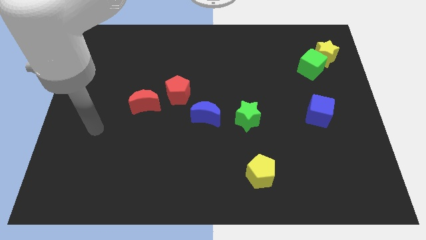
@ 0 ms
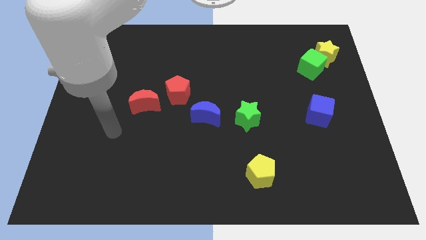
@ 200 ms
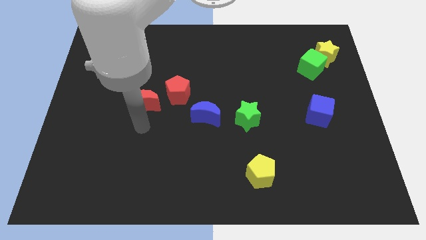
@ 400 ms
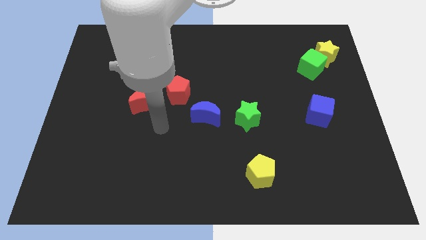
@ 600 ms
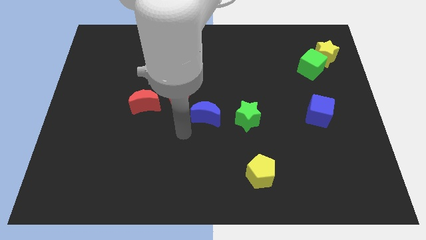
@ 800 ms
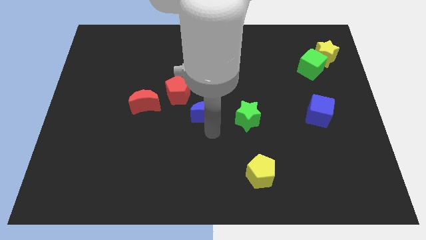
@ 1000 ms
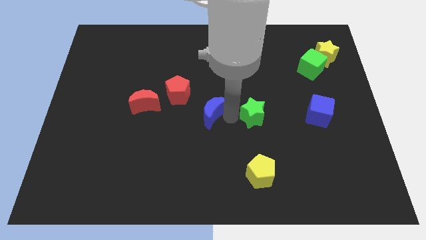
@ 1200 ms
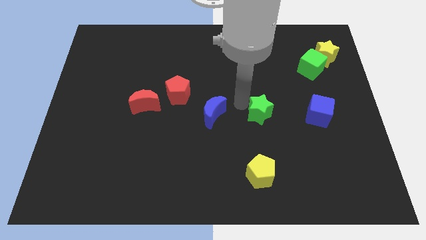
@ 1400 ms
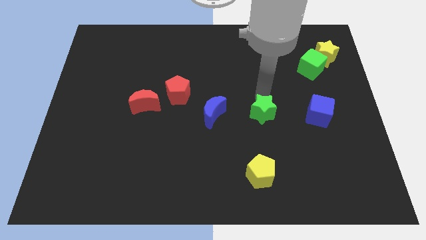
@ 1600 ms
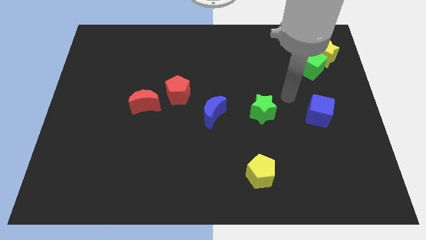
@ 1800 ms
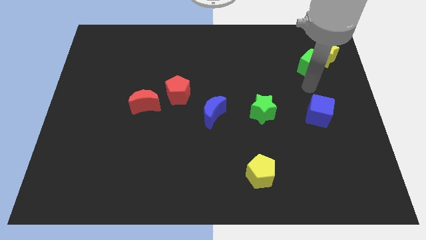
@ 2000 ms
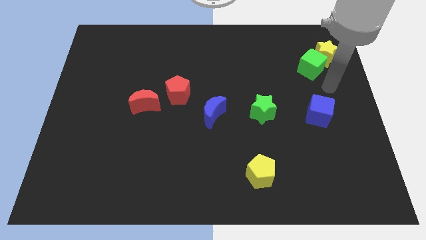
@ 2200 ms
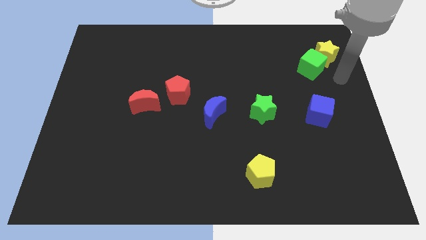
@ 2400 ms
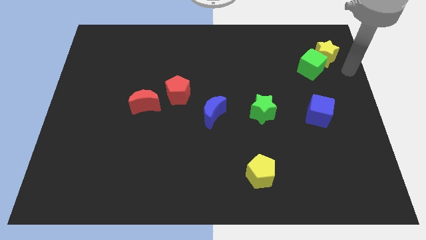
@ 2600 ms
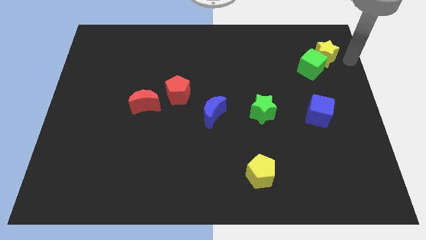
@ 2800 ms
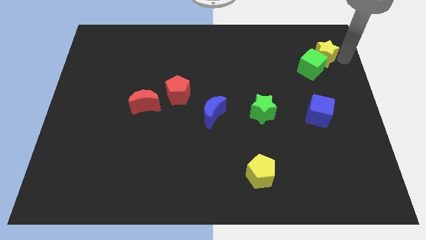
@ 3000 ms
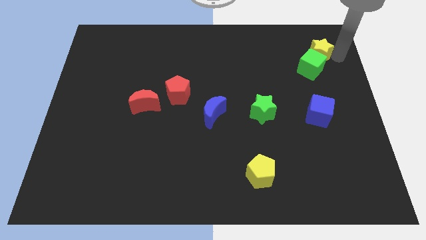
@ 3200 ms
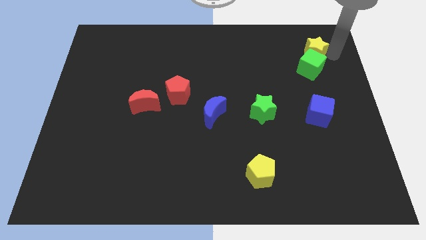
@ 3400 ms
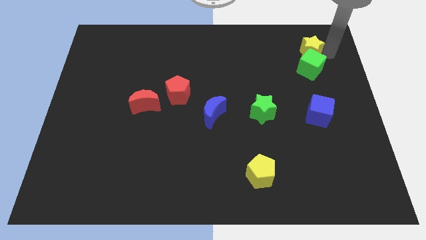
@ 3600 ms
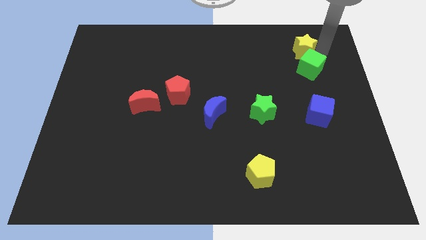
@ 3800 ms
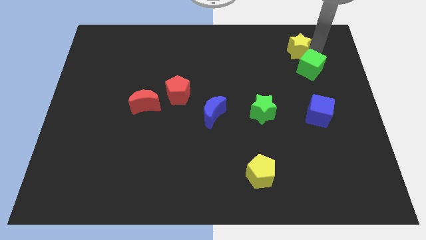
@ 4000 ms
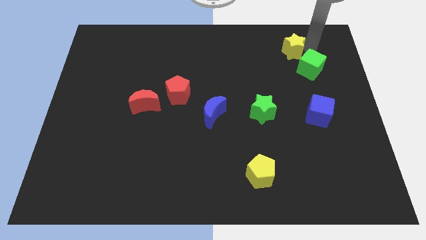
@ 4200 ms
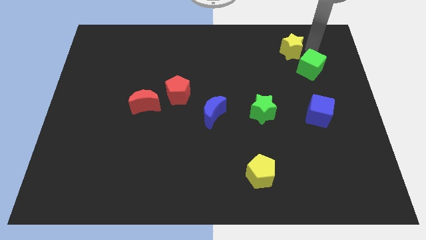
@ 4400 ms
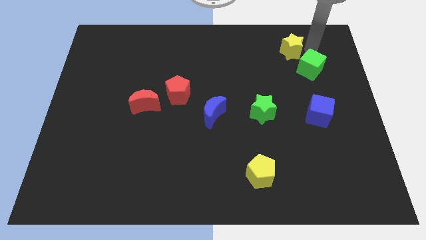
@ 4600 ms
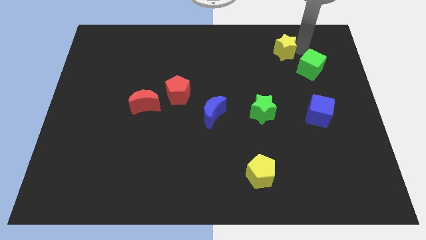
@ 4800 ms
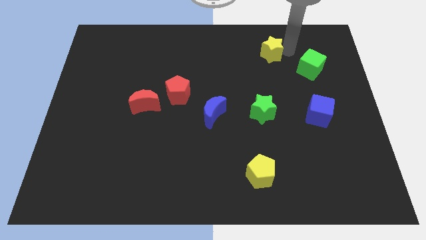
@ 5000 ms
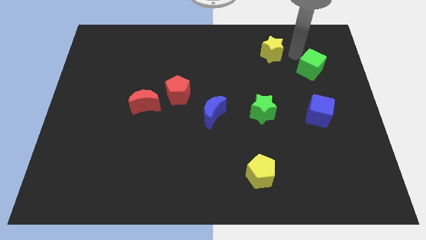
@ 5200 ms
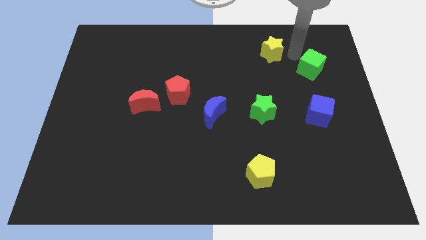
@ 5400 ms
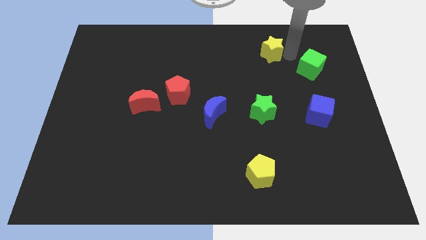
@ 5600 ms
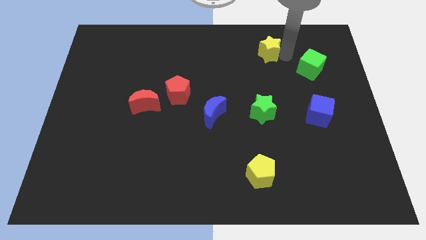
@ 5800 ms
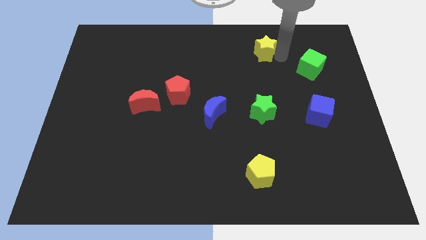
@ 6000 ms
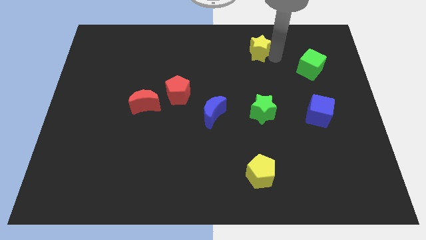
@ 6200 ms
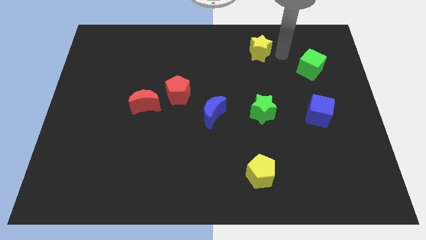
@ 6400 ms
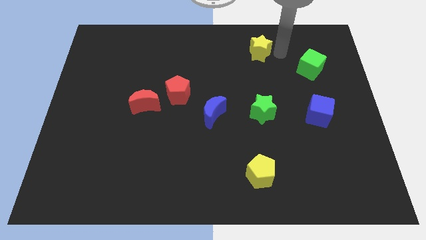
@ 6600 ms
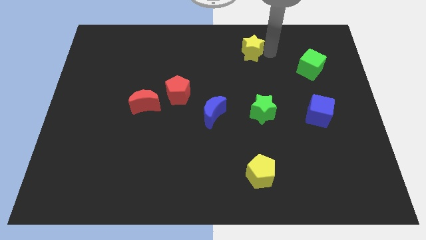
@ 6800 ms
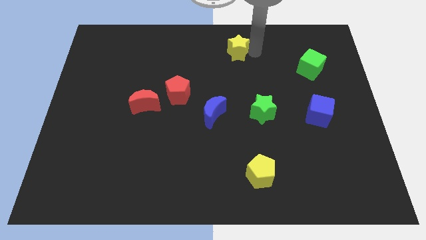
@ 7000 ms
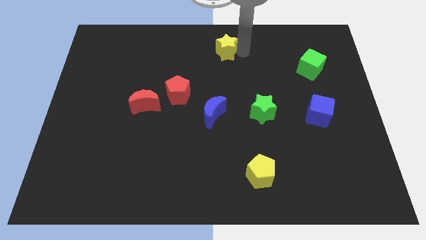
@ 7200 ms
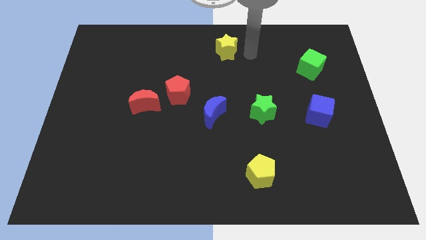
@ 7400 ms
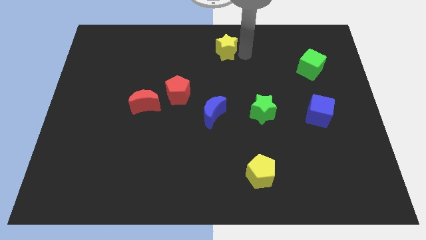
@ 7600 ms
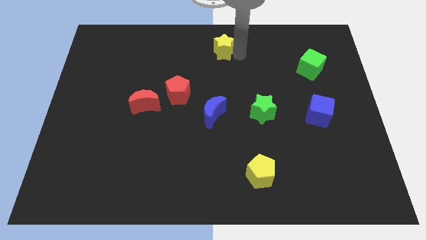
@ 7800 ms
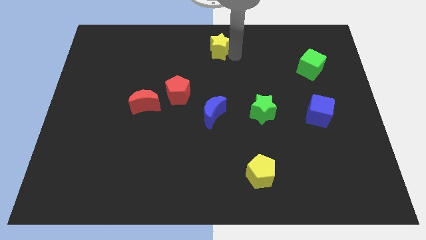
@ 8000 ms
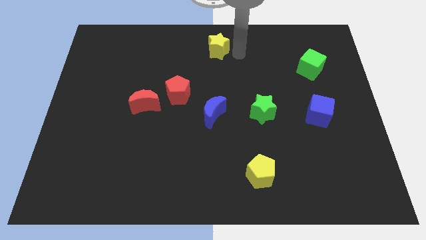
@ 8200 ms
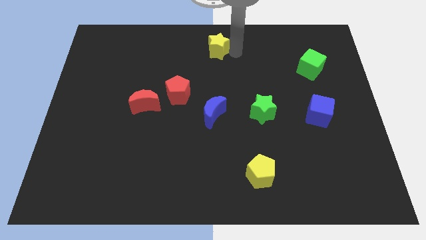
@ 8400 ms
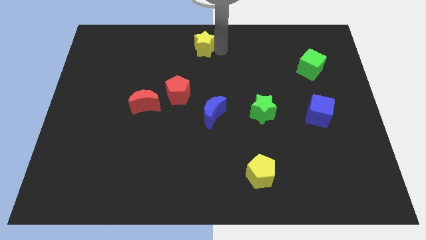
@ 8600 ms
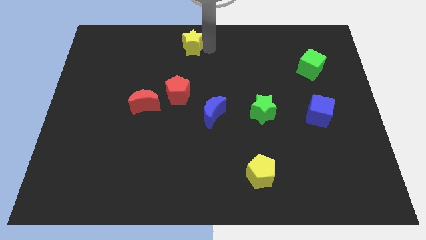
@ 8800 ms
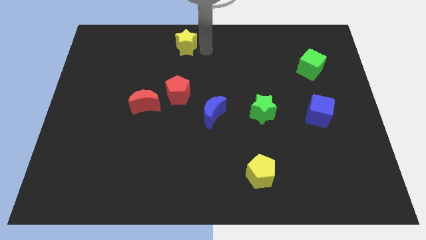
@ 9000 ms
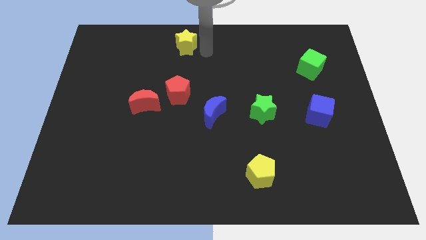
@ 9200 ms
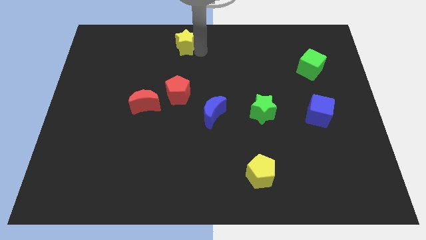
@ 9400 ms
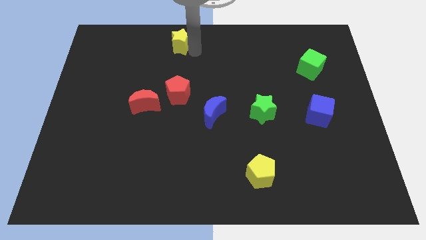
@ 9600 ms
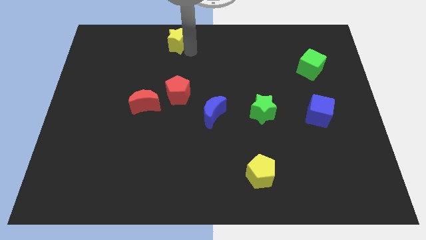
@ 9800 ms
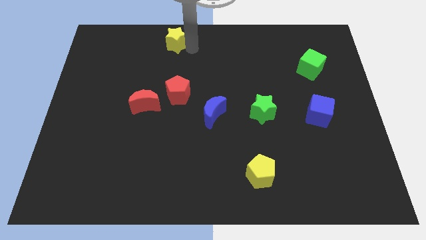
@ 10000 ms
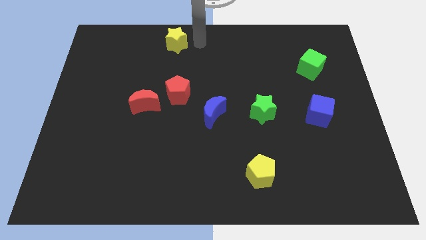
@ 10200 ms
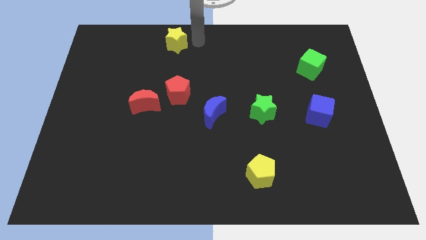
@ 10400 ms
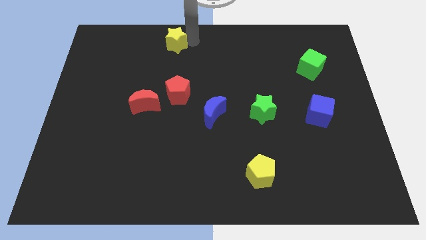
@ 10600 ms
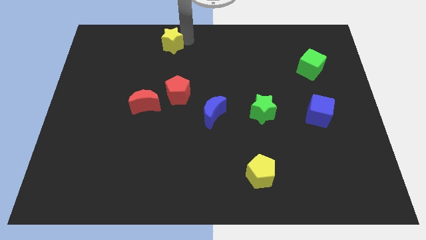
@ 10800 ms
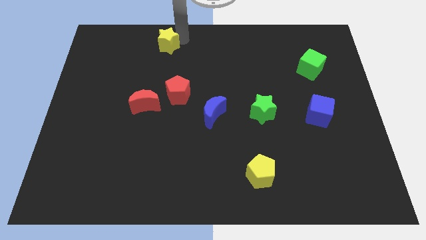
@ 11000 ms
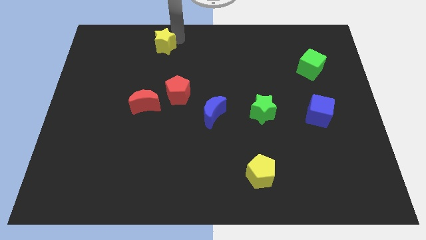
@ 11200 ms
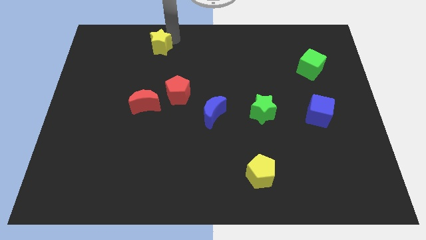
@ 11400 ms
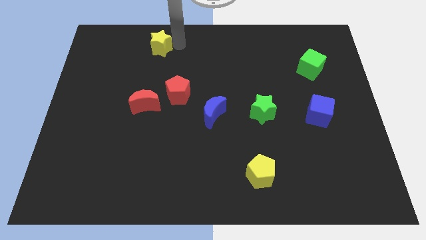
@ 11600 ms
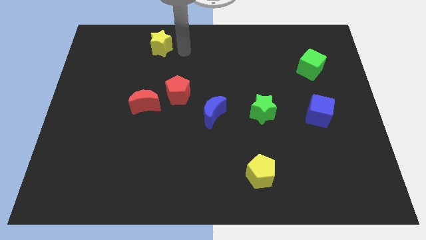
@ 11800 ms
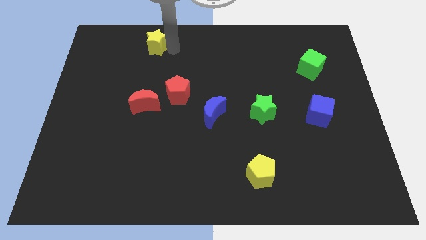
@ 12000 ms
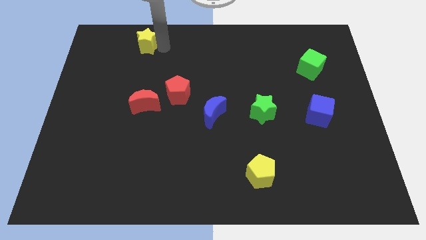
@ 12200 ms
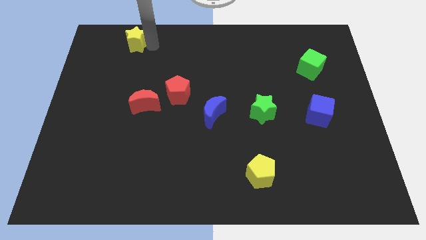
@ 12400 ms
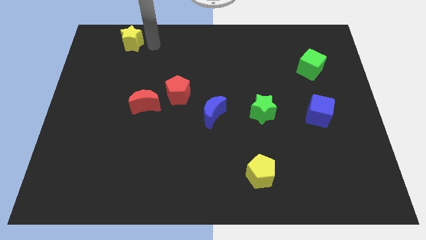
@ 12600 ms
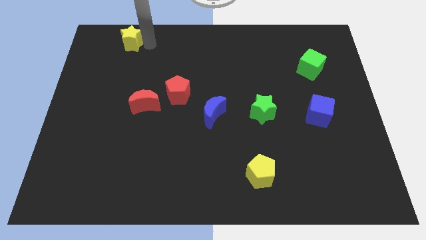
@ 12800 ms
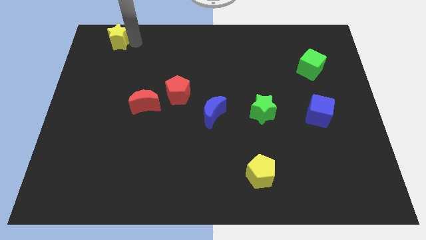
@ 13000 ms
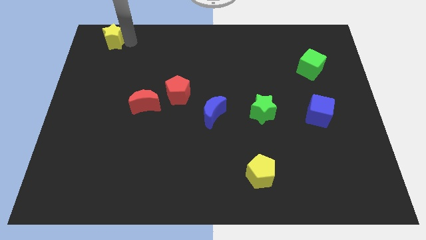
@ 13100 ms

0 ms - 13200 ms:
move the yellow star to the top left corner
